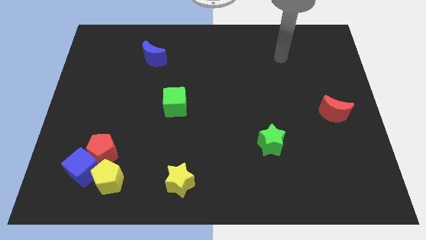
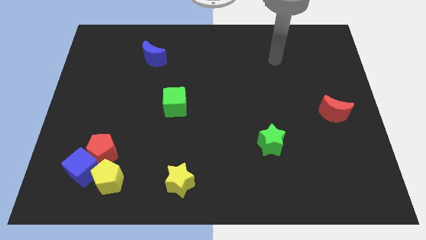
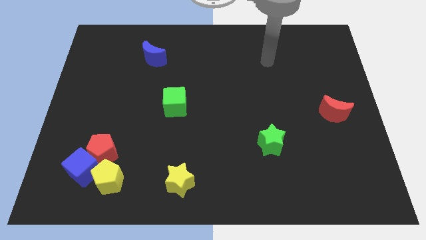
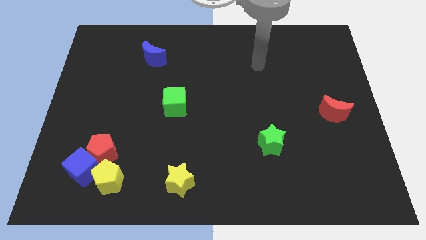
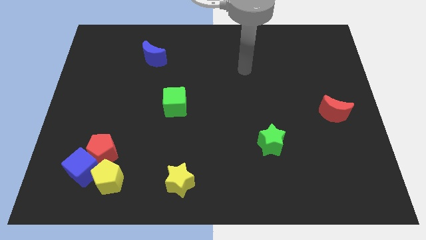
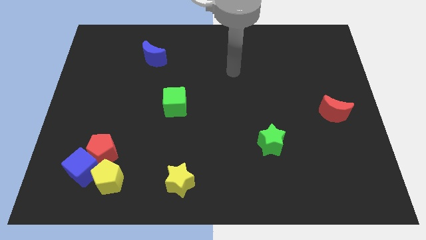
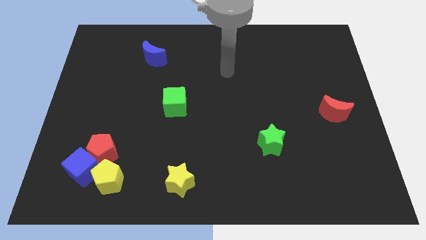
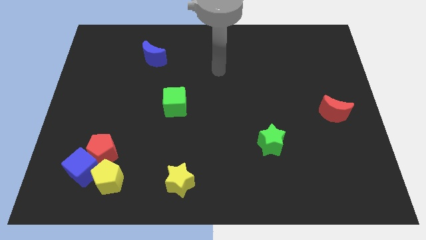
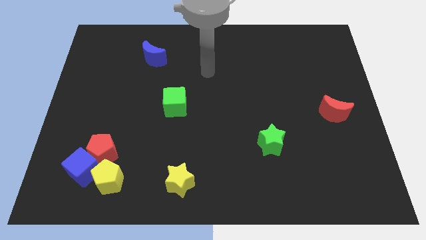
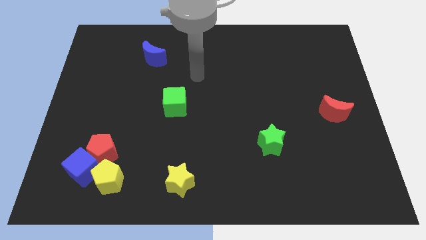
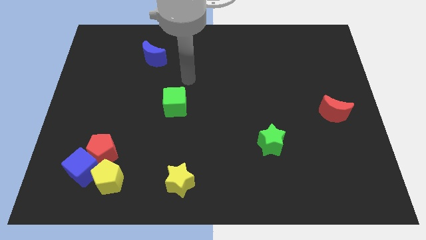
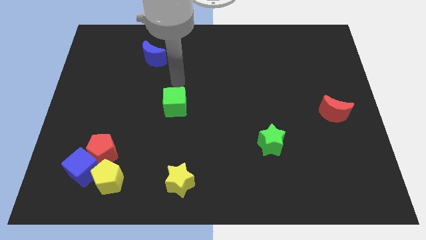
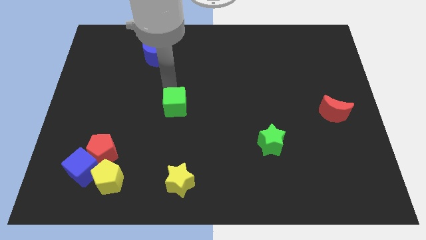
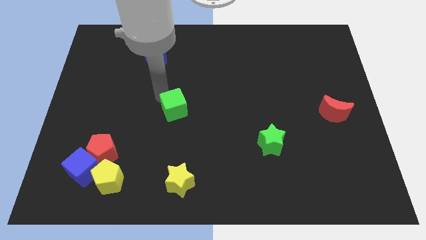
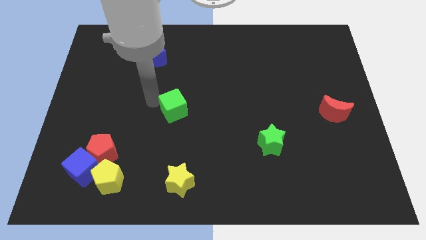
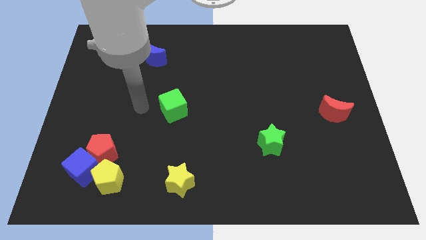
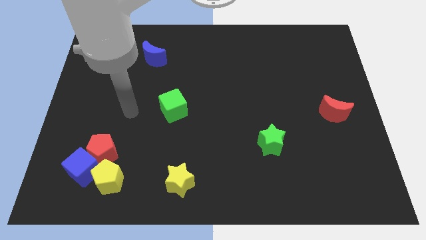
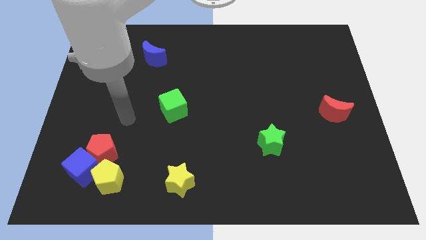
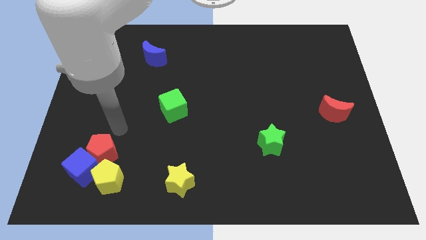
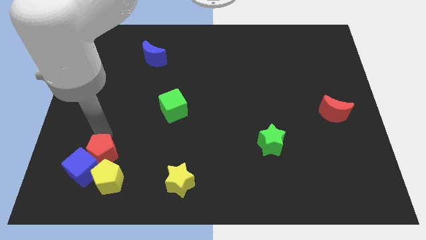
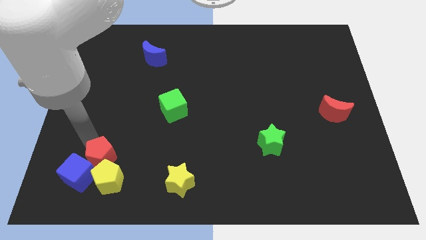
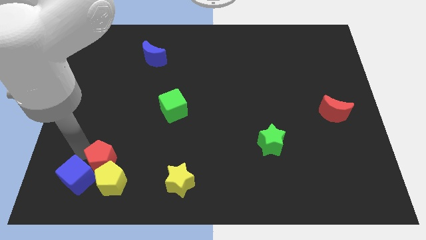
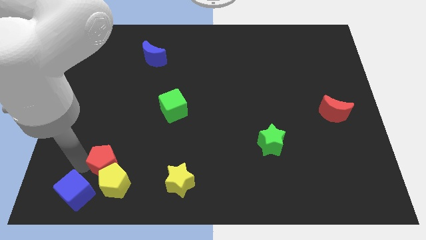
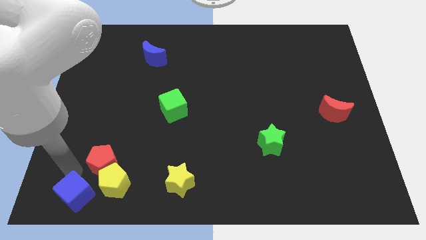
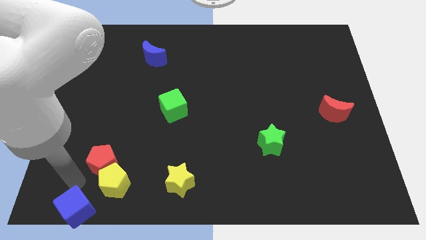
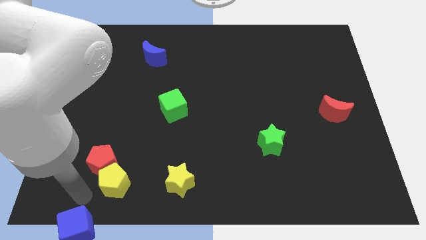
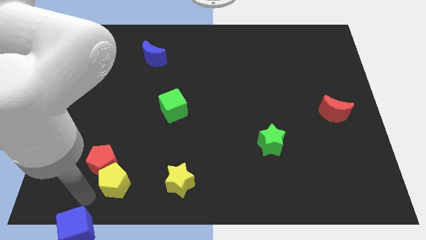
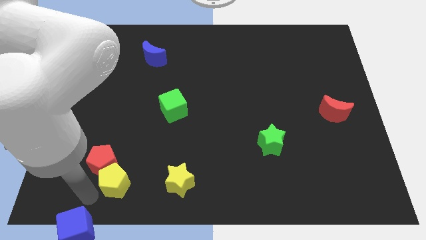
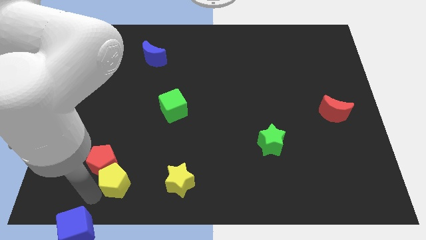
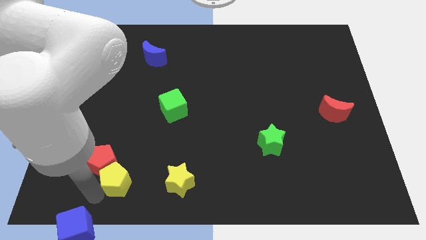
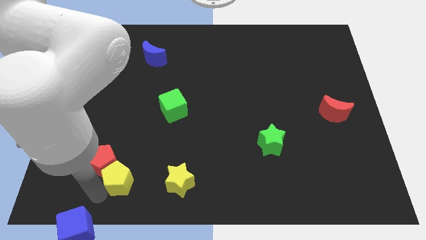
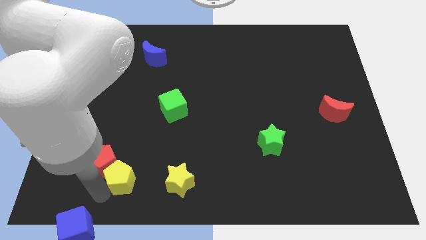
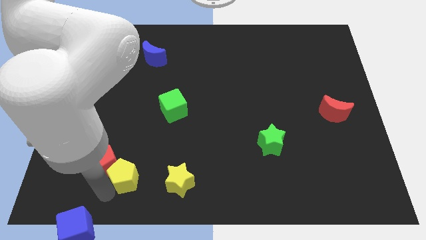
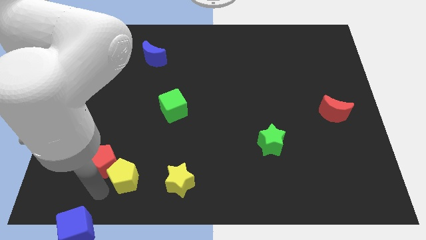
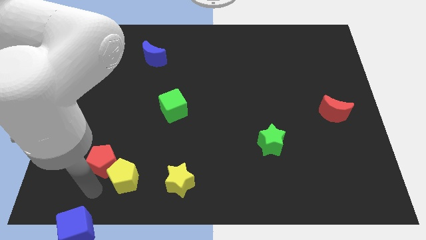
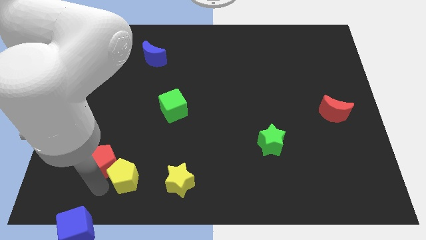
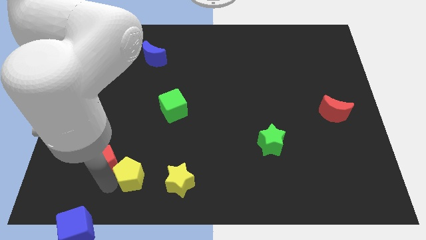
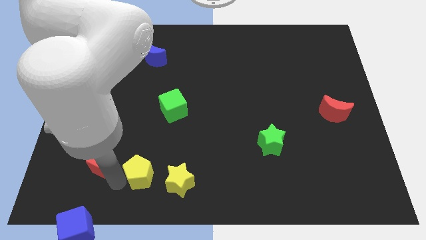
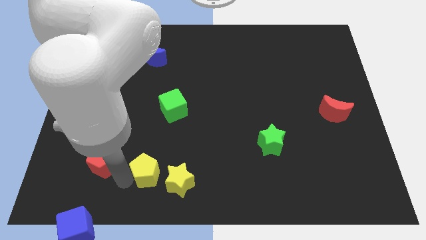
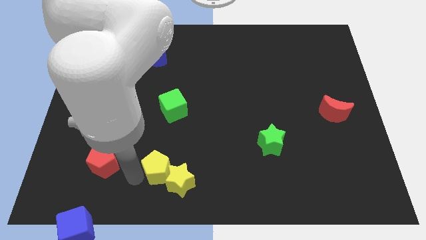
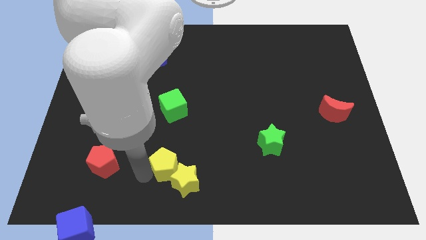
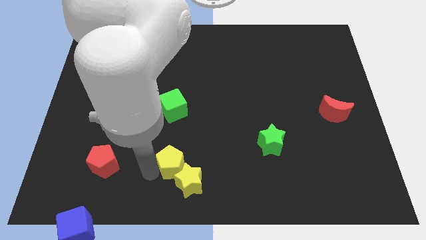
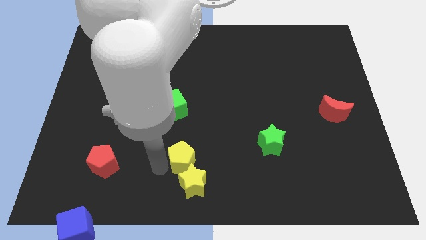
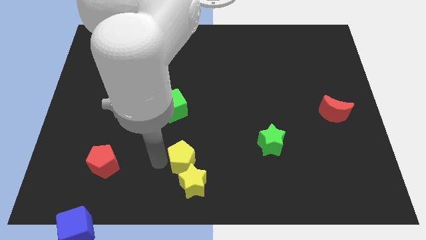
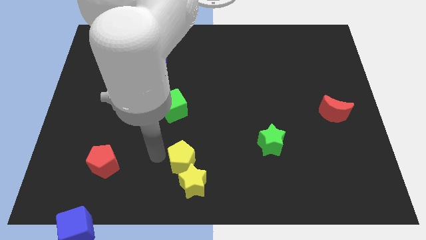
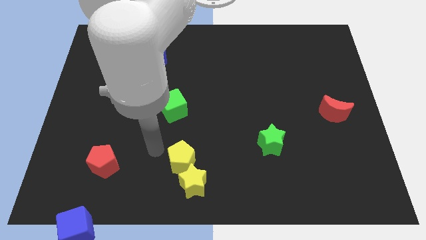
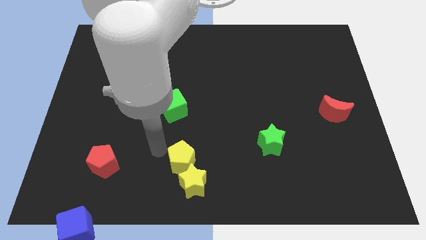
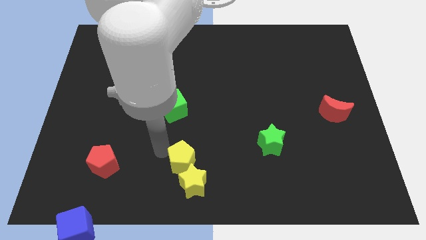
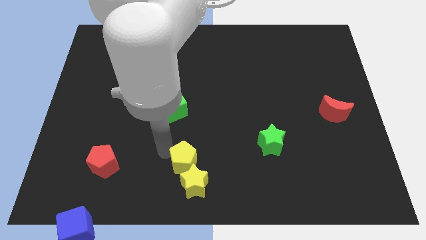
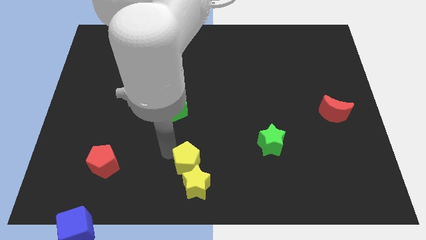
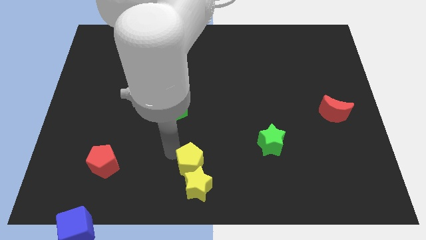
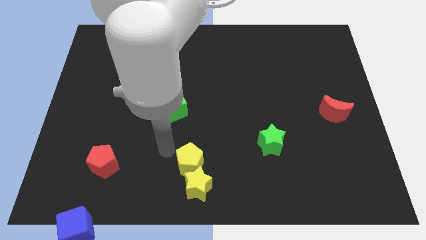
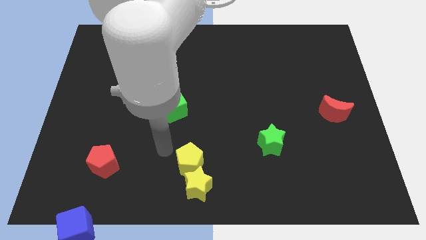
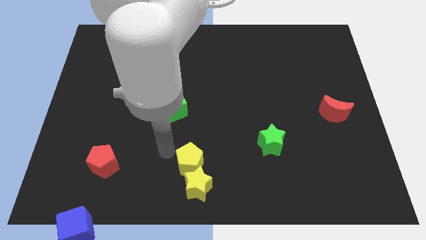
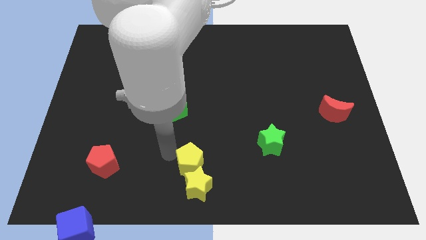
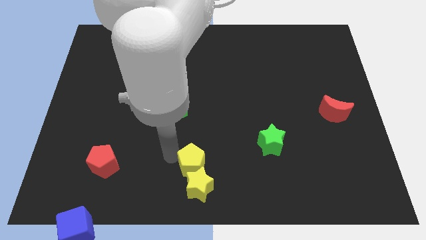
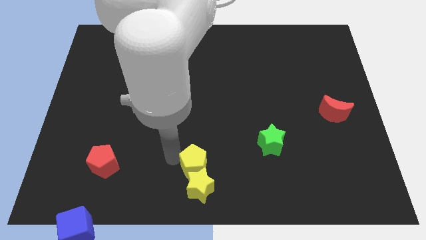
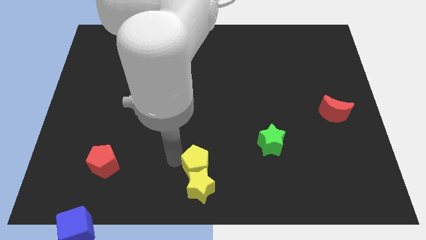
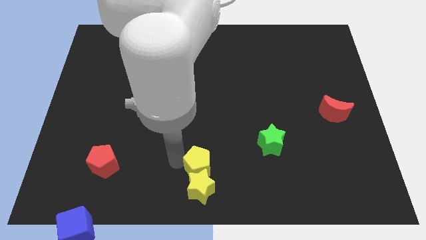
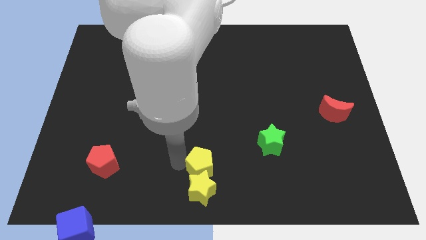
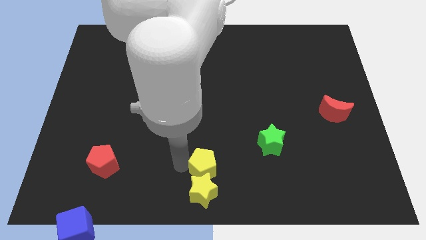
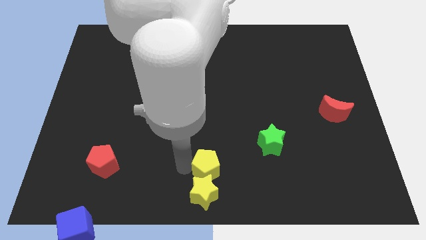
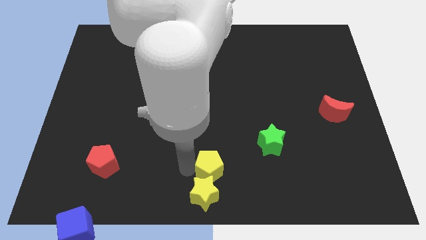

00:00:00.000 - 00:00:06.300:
push the yellow pentagon to the right

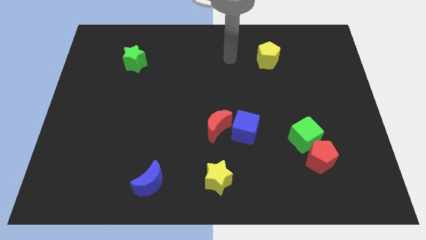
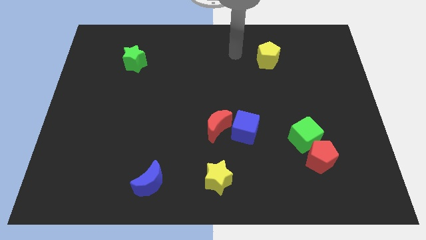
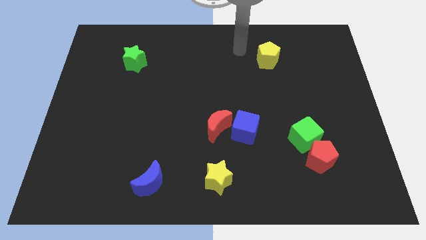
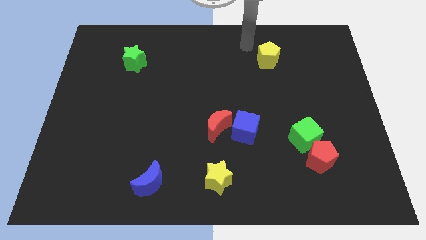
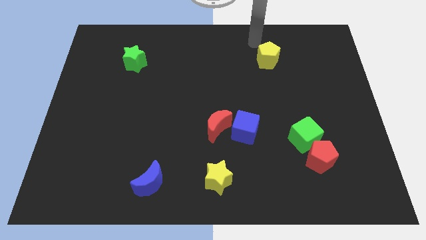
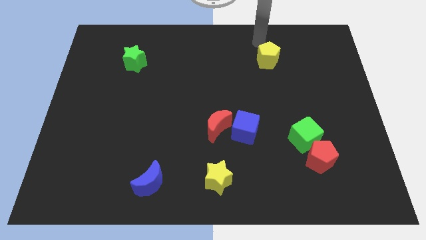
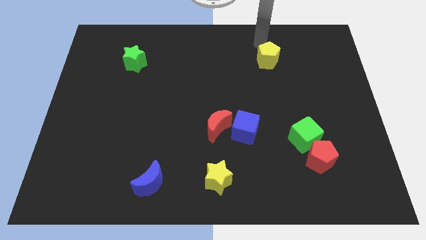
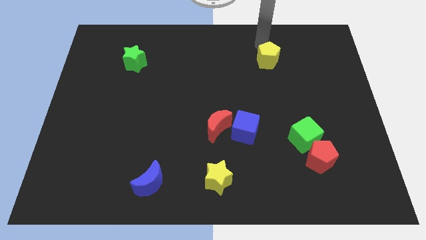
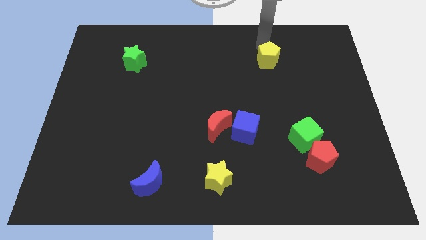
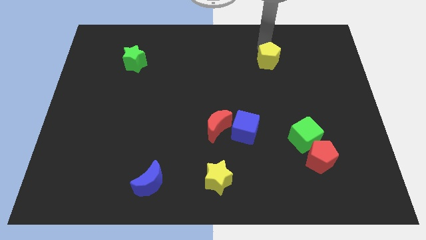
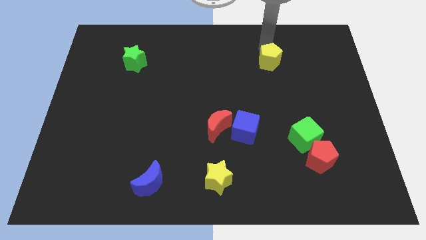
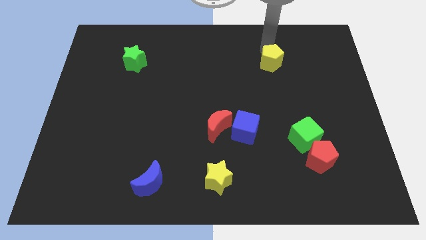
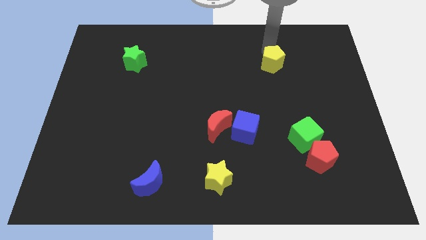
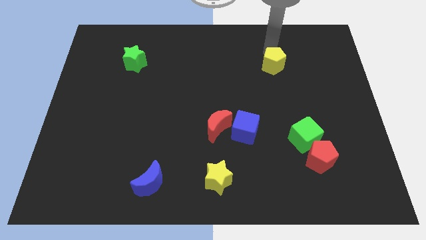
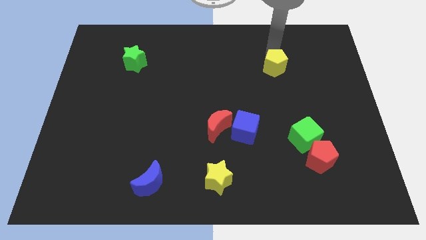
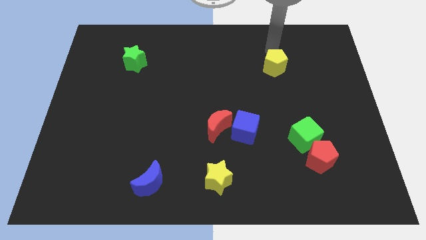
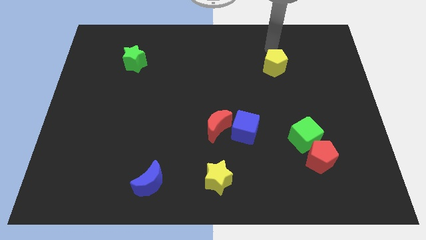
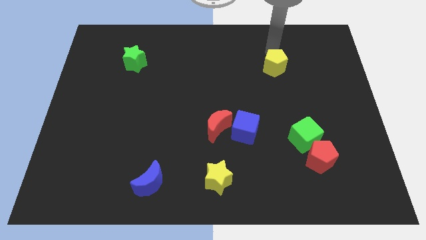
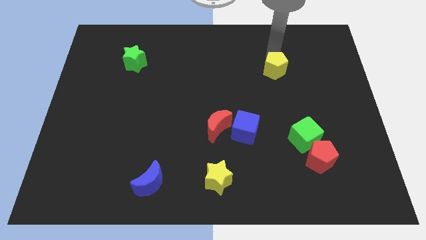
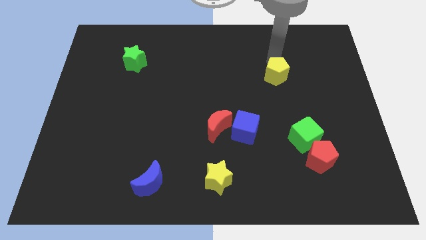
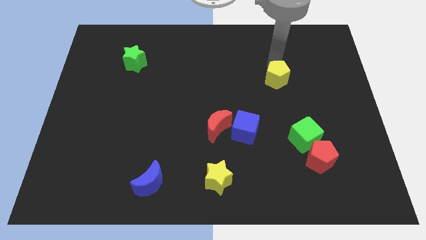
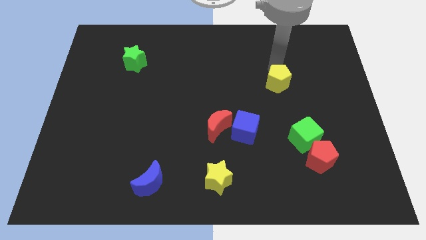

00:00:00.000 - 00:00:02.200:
move the yellow pentagon down somewhat
